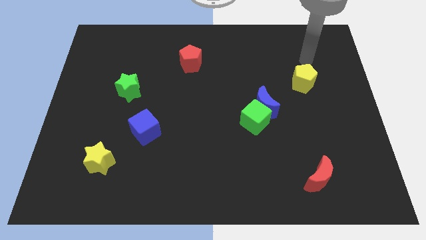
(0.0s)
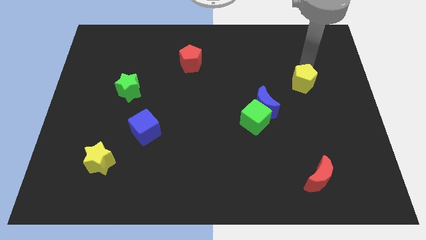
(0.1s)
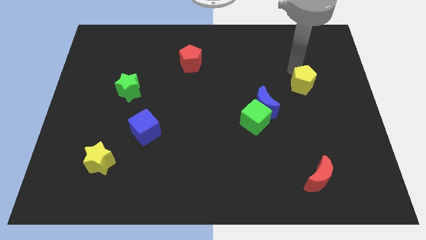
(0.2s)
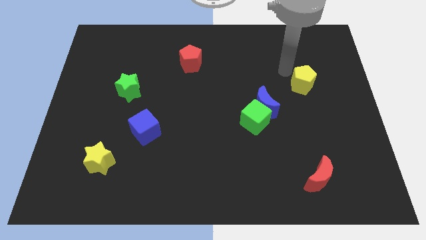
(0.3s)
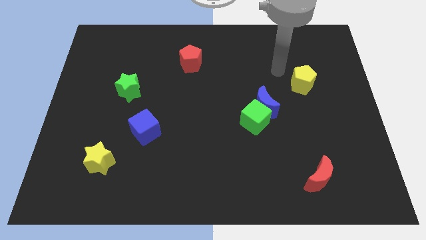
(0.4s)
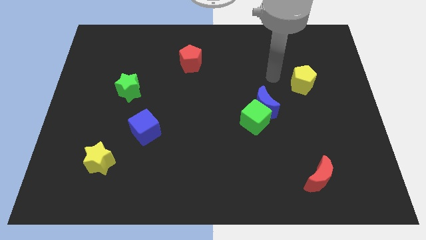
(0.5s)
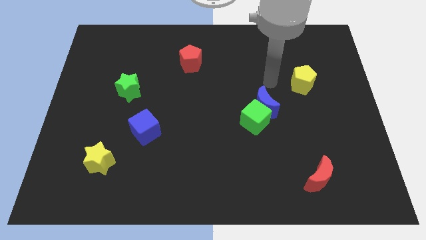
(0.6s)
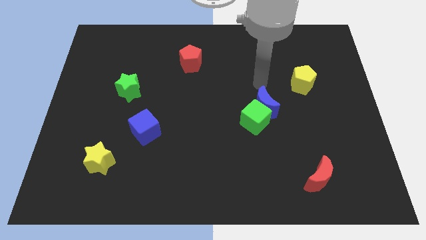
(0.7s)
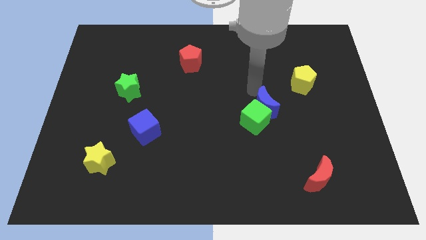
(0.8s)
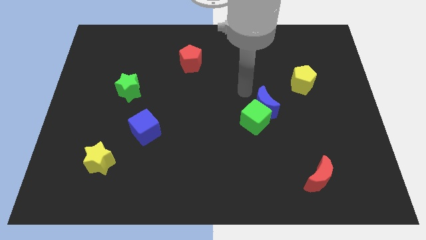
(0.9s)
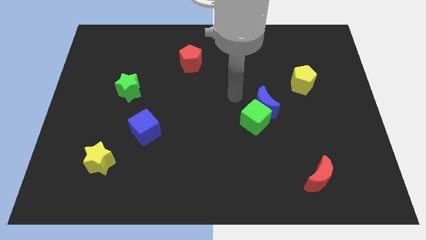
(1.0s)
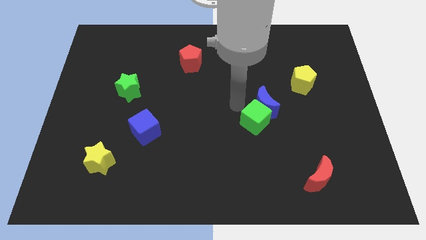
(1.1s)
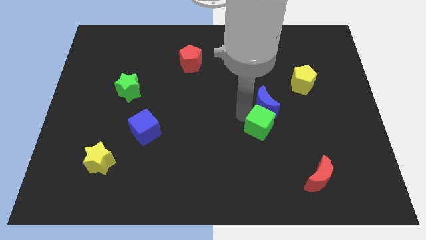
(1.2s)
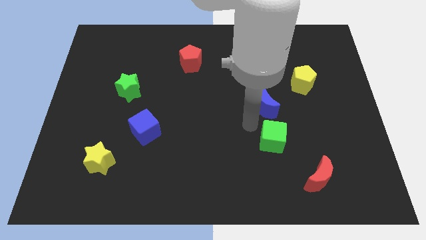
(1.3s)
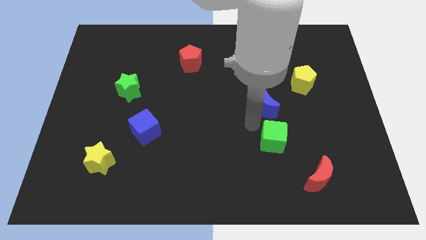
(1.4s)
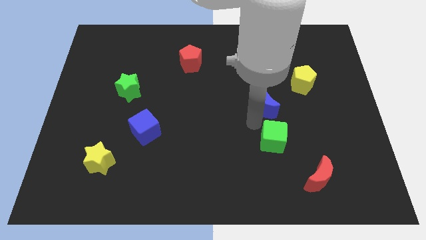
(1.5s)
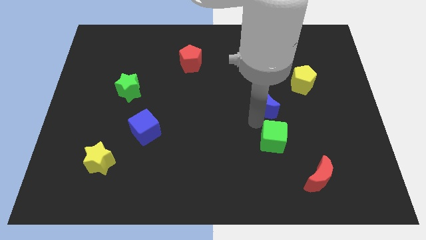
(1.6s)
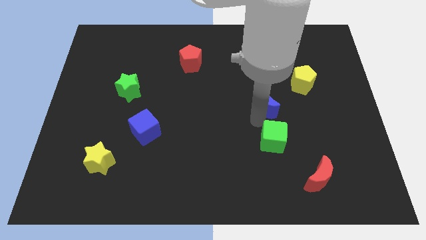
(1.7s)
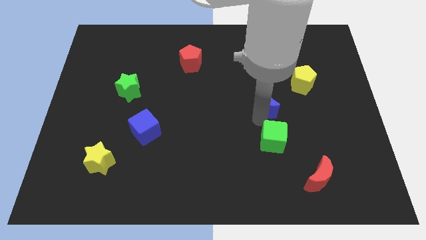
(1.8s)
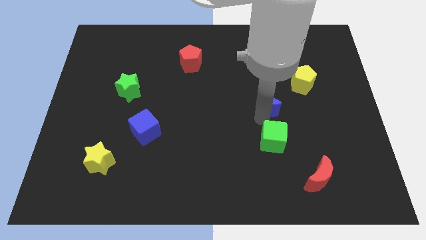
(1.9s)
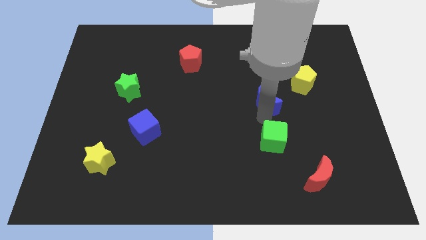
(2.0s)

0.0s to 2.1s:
move the blue moon away from the green cube

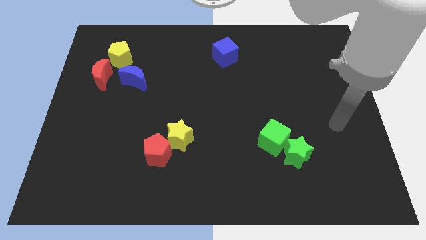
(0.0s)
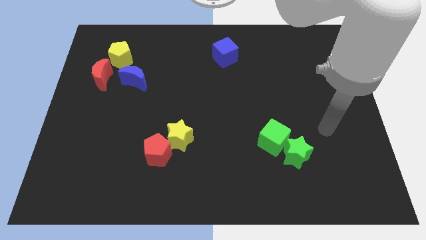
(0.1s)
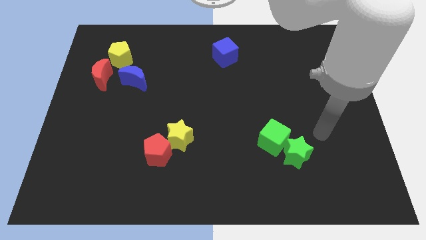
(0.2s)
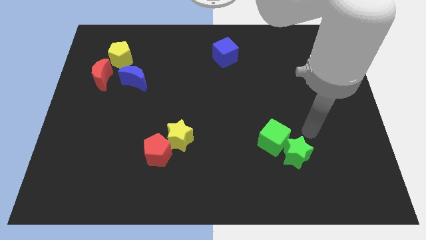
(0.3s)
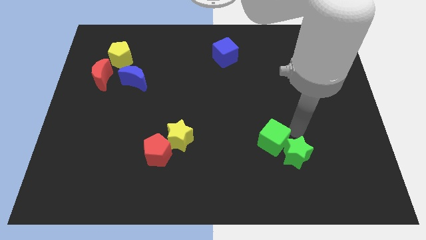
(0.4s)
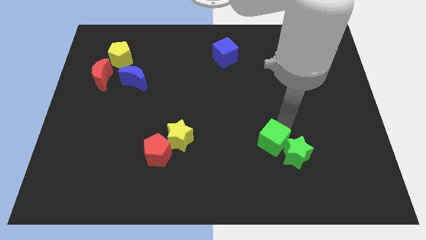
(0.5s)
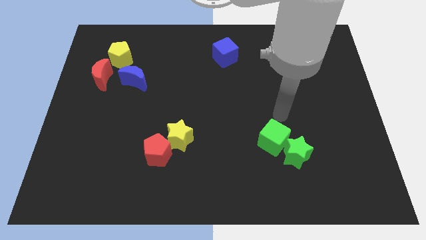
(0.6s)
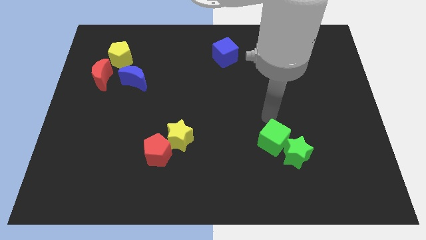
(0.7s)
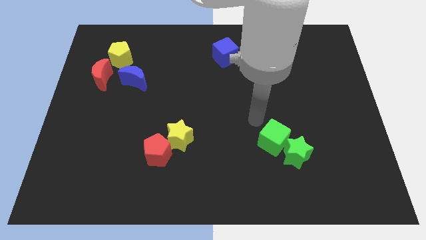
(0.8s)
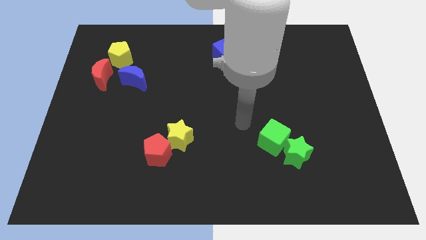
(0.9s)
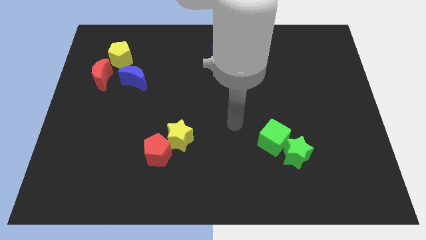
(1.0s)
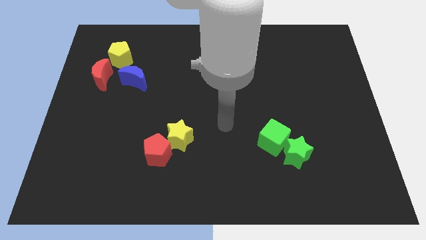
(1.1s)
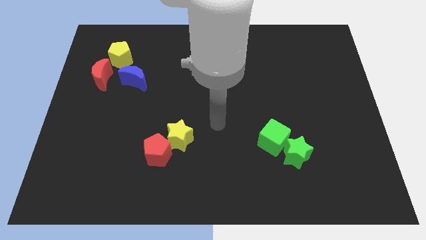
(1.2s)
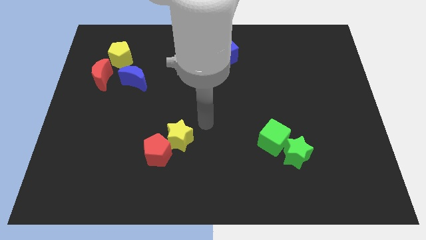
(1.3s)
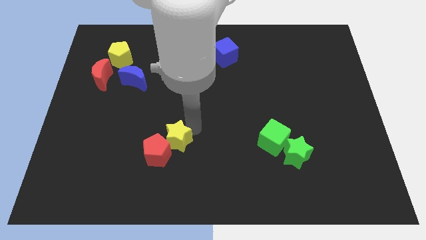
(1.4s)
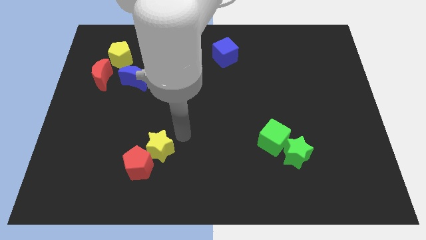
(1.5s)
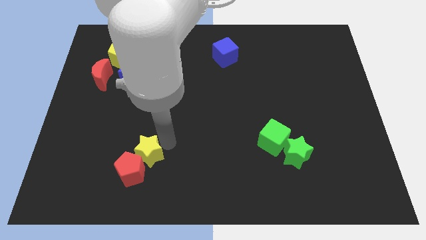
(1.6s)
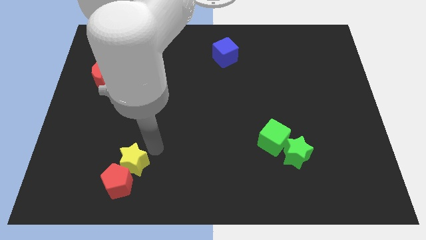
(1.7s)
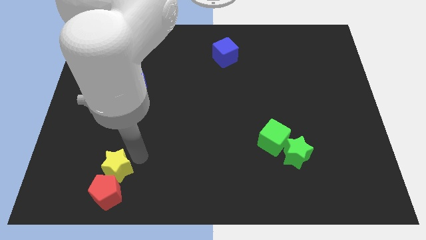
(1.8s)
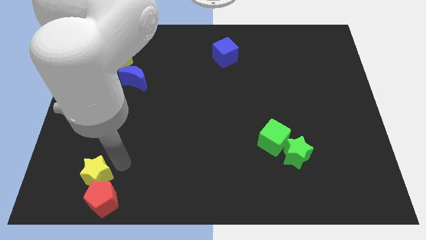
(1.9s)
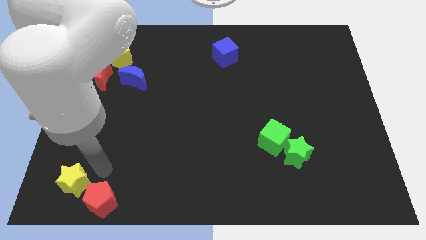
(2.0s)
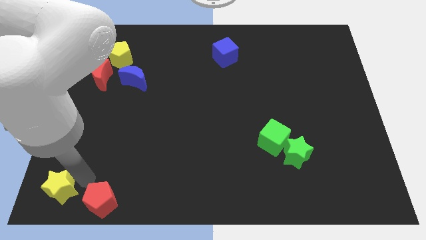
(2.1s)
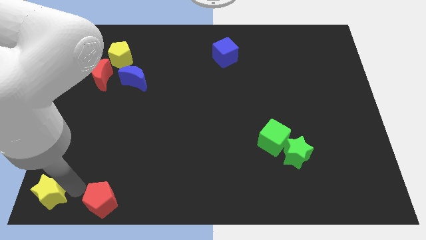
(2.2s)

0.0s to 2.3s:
move the red pentagon away from the yellow star

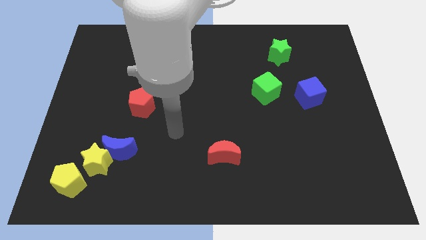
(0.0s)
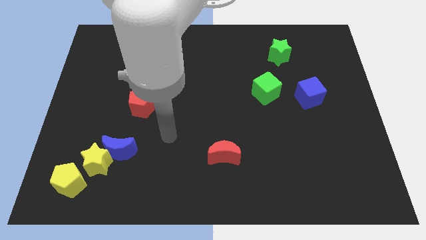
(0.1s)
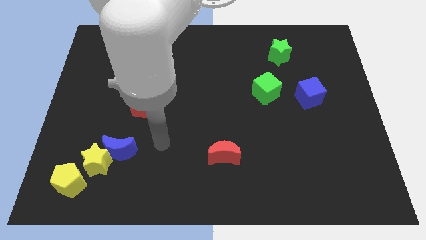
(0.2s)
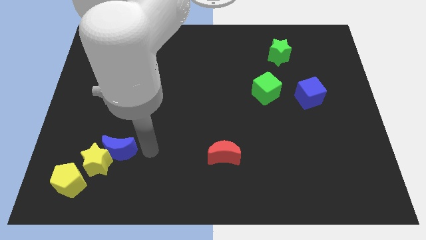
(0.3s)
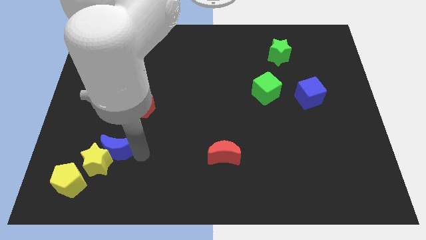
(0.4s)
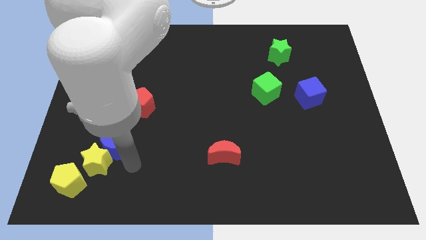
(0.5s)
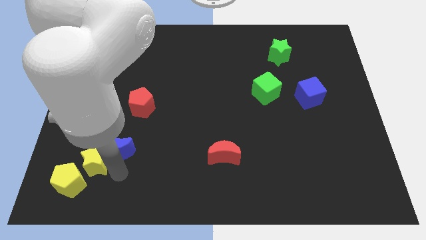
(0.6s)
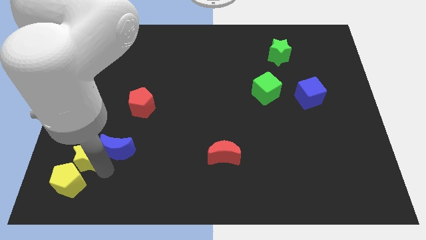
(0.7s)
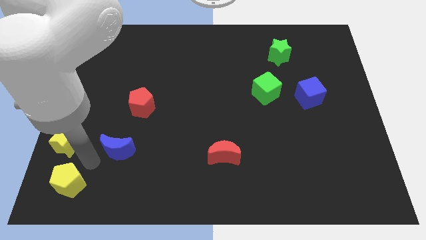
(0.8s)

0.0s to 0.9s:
move the blue moon away from the yellow star

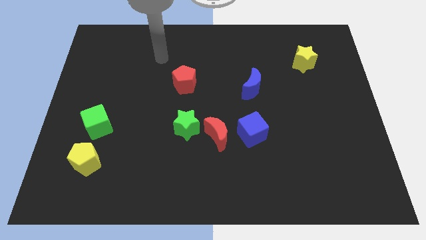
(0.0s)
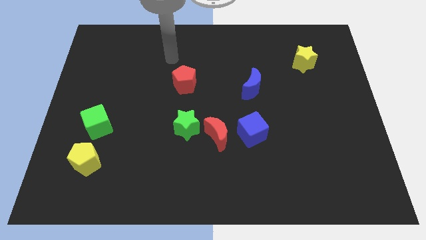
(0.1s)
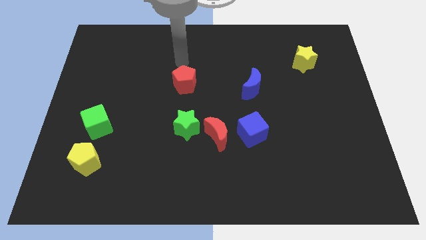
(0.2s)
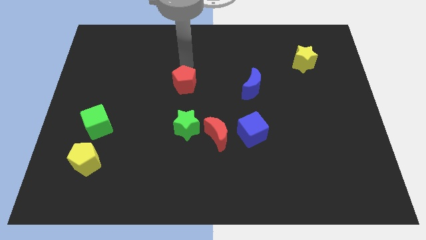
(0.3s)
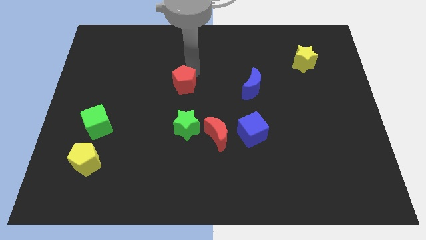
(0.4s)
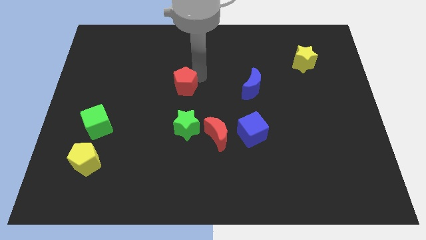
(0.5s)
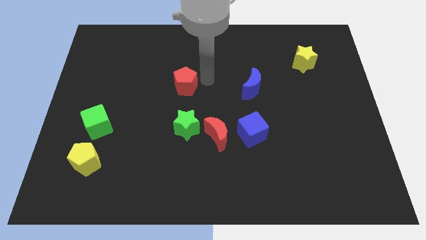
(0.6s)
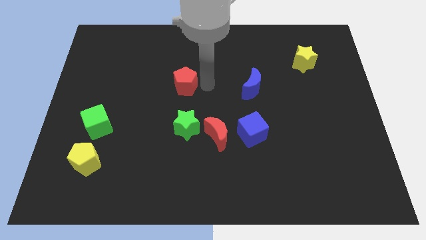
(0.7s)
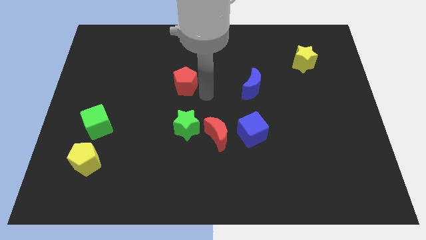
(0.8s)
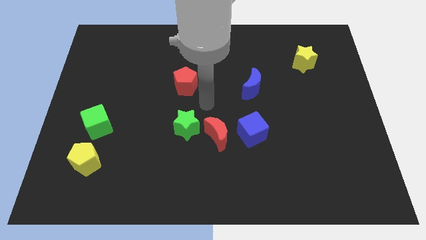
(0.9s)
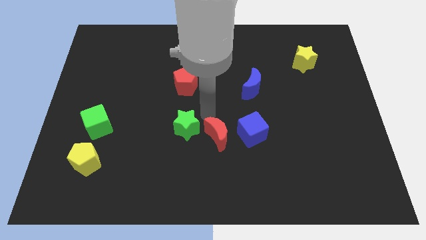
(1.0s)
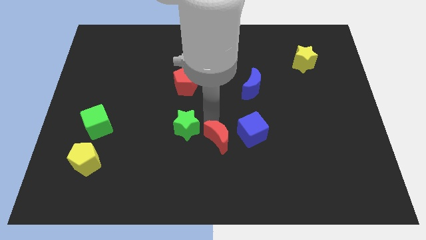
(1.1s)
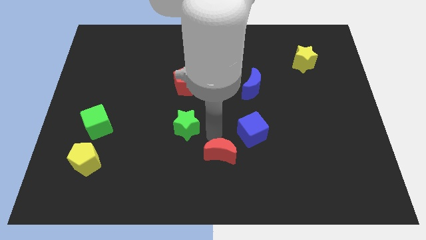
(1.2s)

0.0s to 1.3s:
pull the green star apart from the red moon

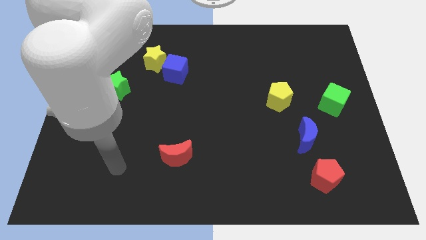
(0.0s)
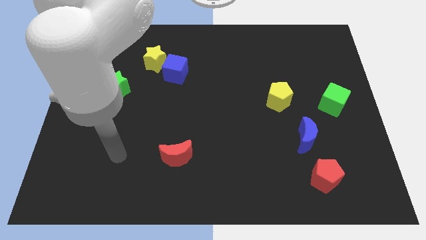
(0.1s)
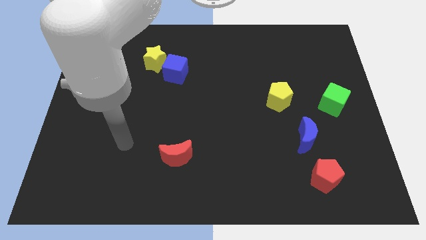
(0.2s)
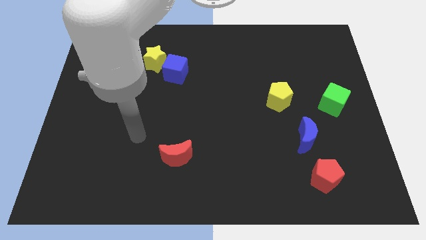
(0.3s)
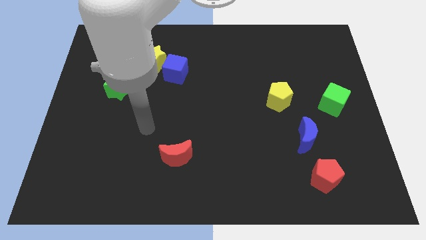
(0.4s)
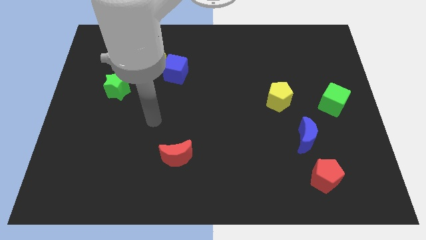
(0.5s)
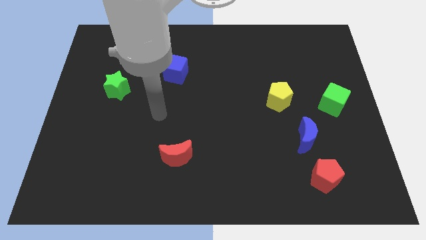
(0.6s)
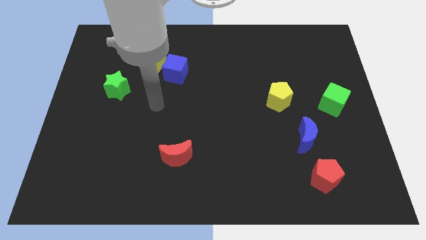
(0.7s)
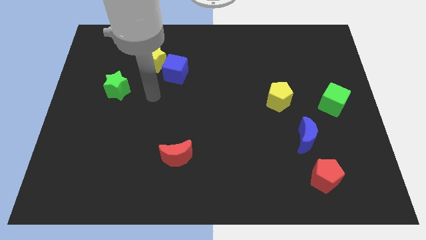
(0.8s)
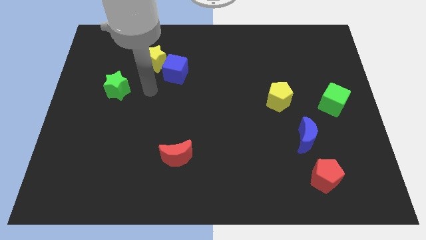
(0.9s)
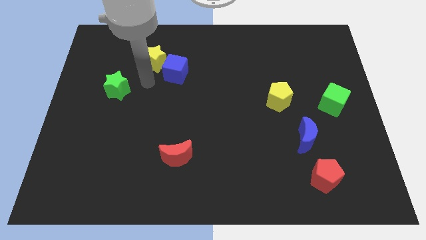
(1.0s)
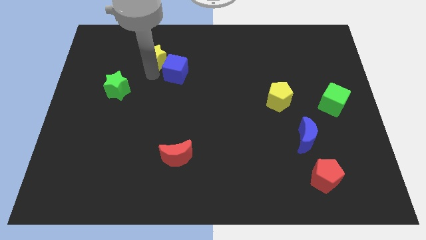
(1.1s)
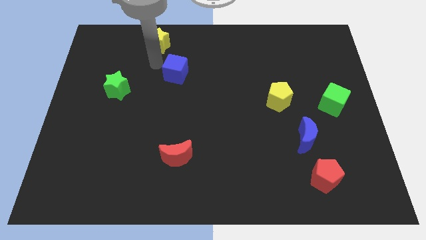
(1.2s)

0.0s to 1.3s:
pull the blue cube apart from the yellow star

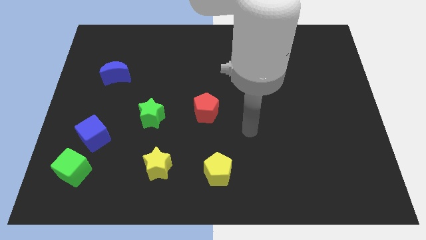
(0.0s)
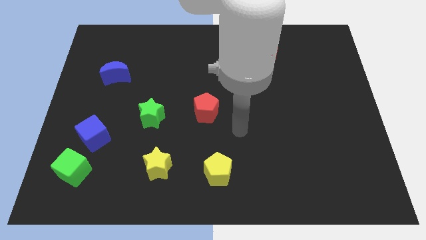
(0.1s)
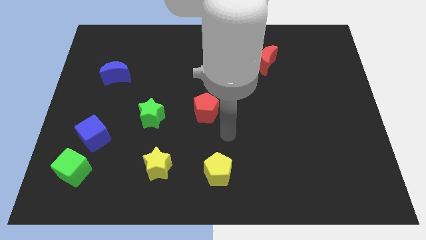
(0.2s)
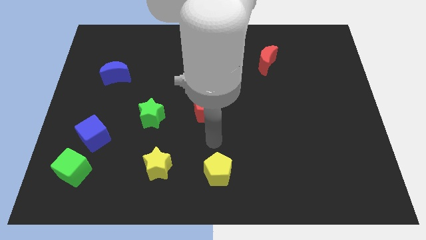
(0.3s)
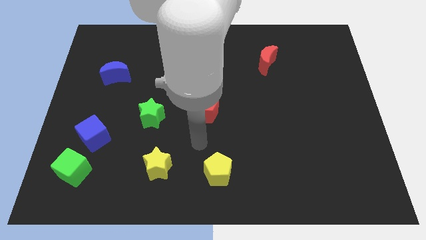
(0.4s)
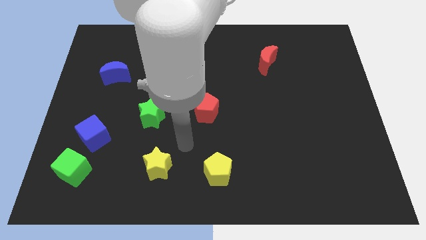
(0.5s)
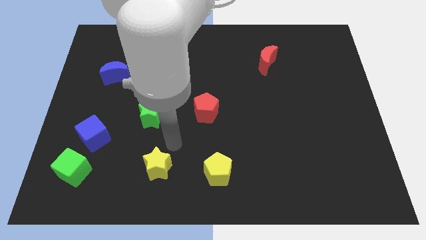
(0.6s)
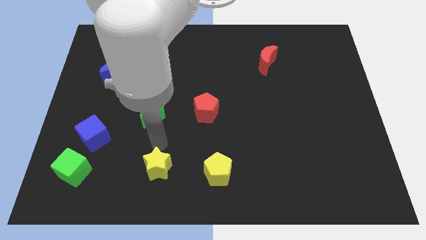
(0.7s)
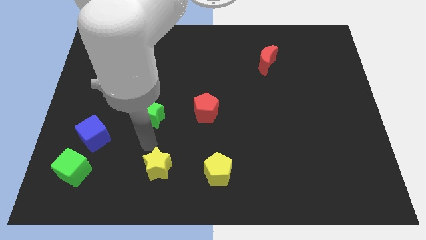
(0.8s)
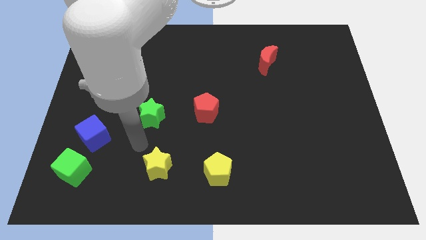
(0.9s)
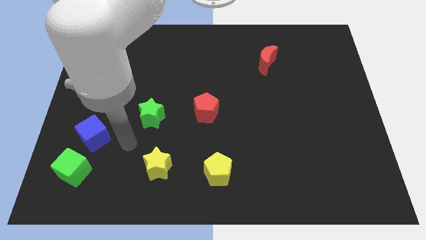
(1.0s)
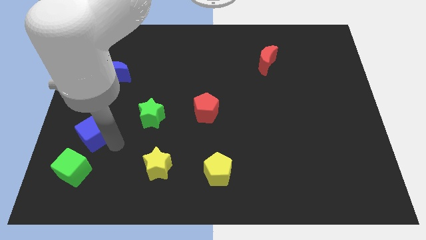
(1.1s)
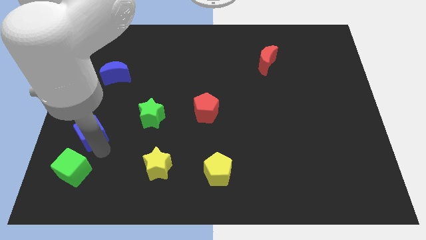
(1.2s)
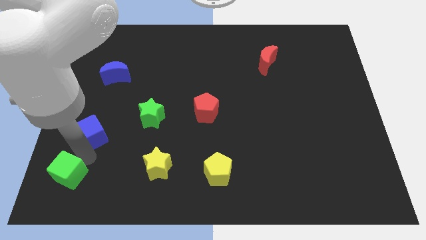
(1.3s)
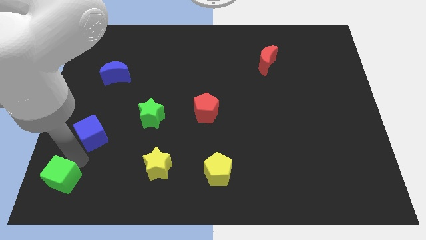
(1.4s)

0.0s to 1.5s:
move the blue cube away from the green cube
